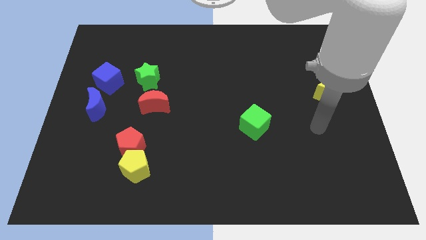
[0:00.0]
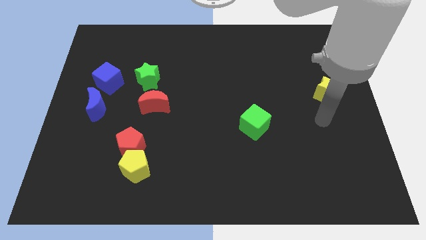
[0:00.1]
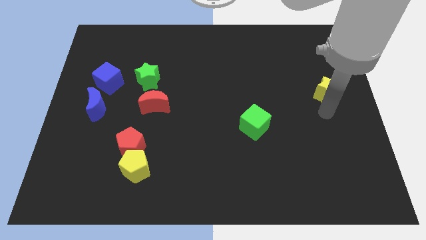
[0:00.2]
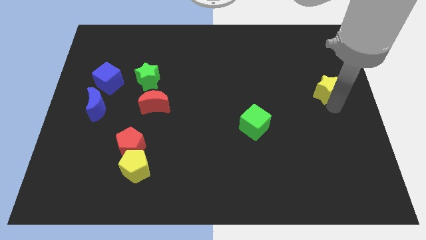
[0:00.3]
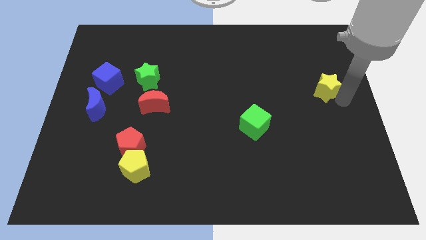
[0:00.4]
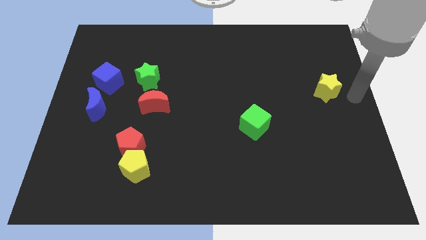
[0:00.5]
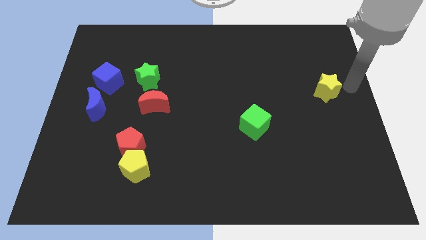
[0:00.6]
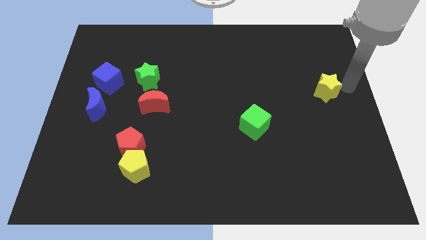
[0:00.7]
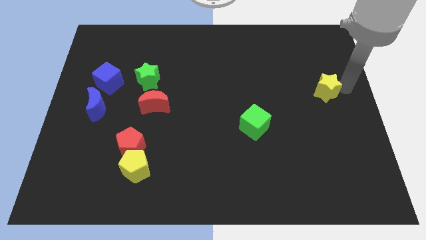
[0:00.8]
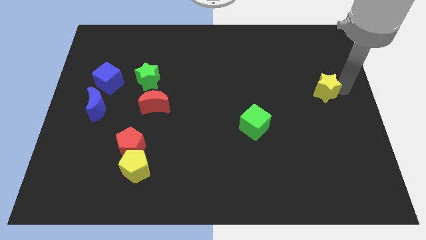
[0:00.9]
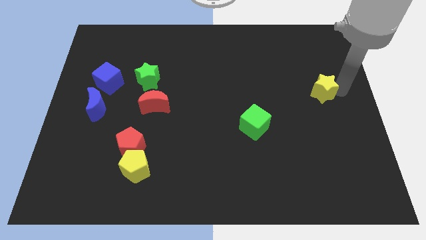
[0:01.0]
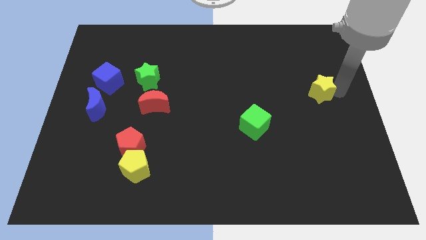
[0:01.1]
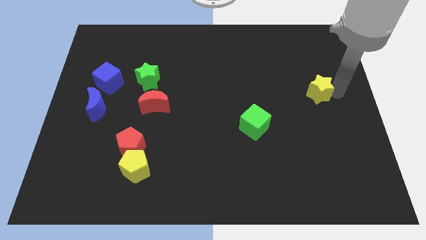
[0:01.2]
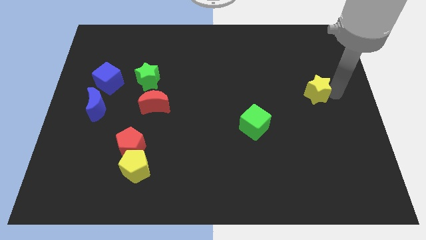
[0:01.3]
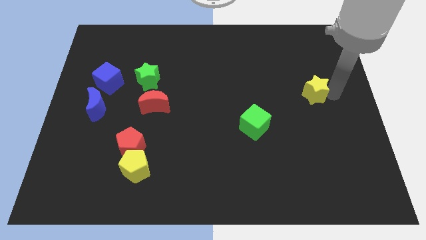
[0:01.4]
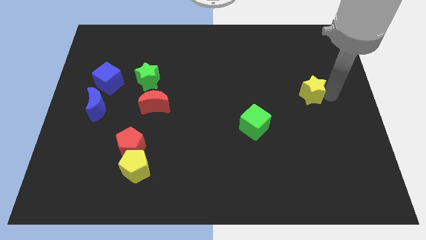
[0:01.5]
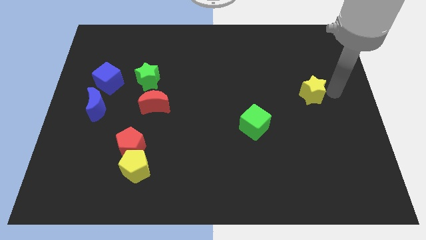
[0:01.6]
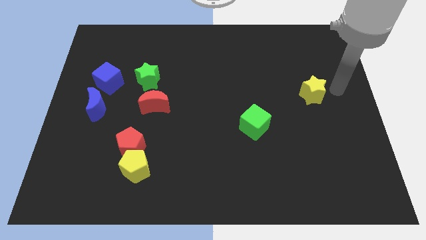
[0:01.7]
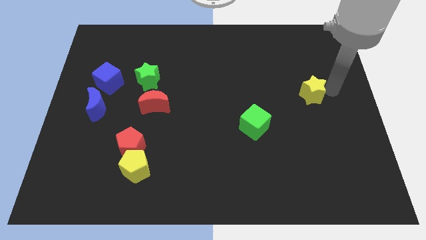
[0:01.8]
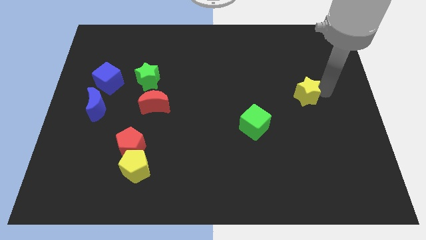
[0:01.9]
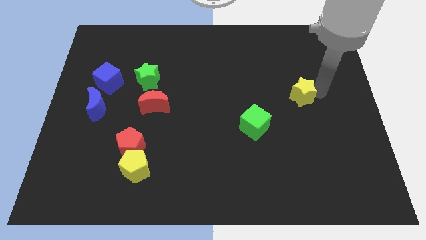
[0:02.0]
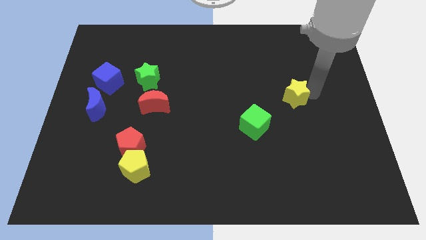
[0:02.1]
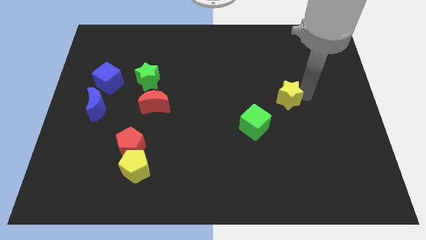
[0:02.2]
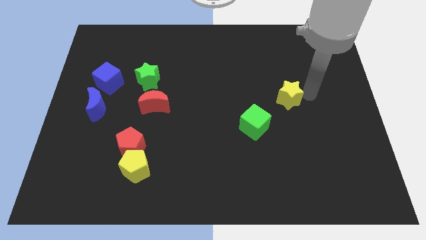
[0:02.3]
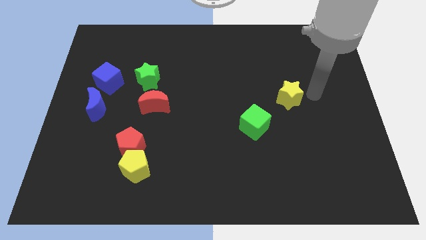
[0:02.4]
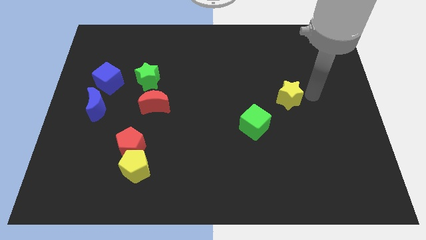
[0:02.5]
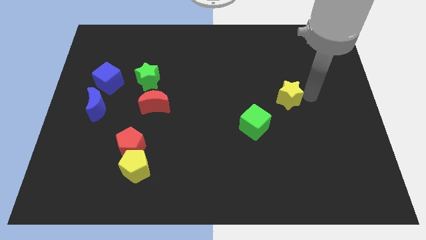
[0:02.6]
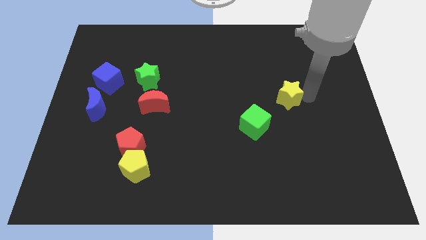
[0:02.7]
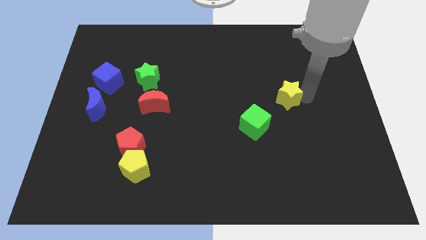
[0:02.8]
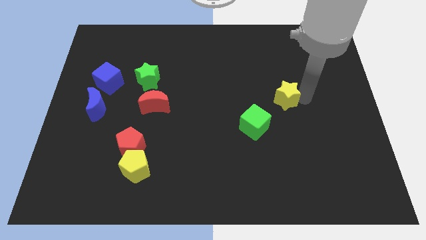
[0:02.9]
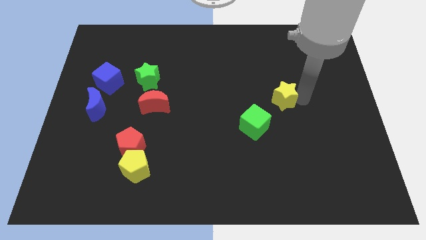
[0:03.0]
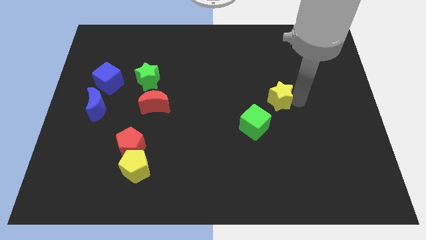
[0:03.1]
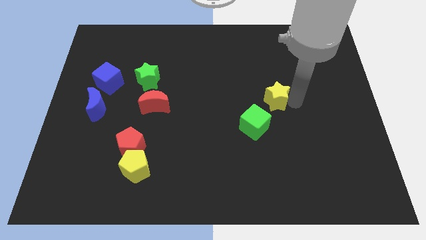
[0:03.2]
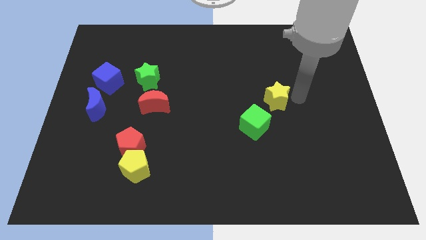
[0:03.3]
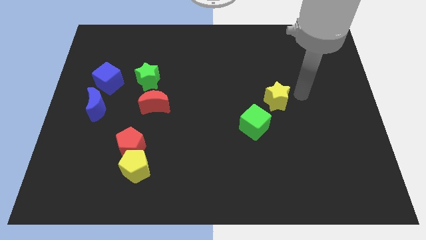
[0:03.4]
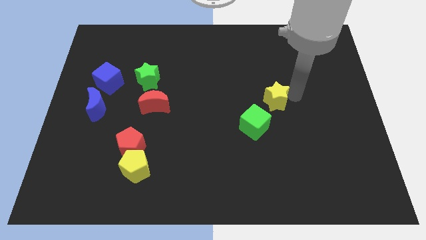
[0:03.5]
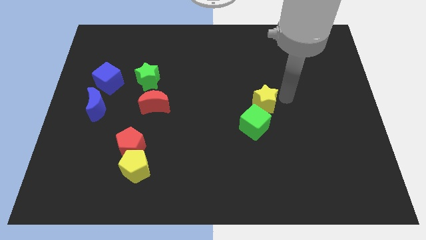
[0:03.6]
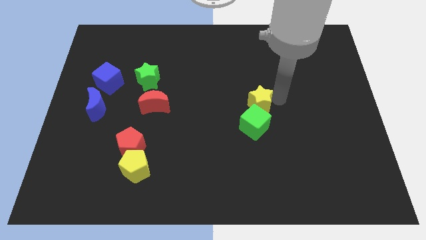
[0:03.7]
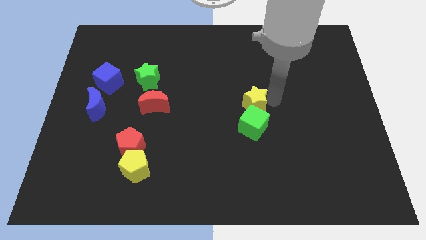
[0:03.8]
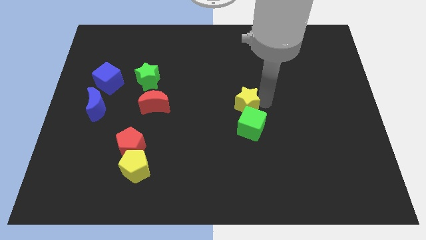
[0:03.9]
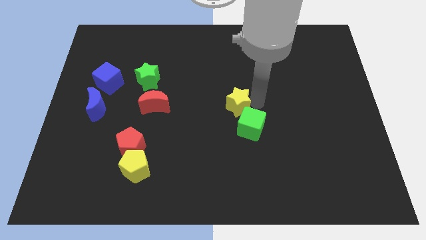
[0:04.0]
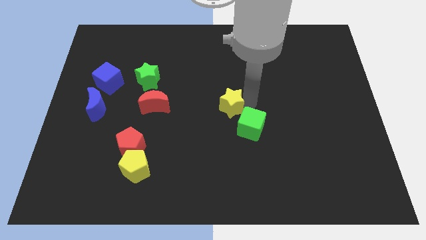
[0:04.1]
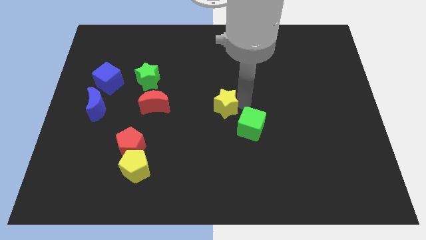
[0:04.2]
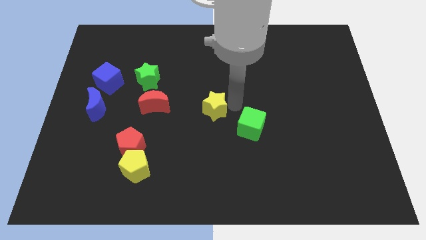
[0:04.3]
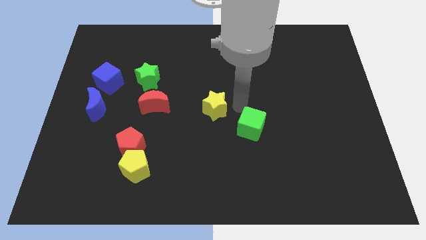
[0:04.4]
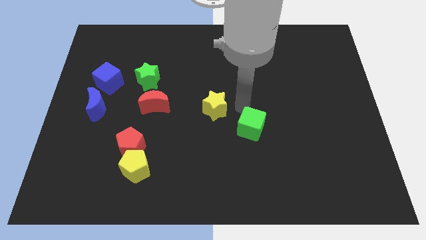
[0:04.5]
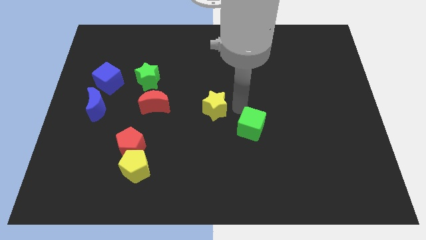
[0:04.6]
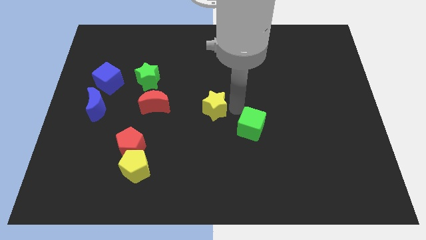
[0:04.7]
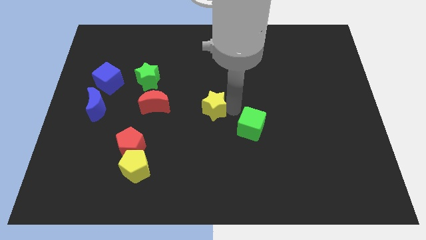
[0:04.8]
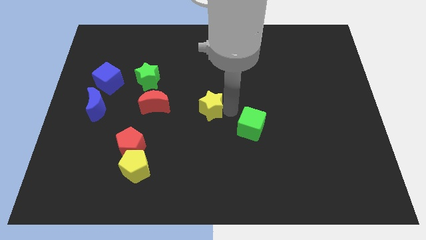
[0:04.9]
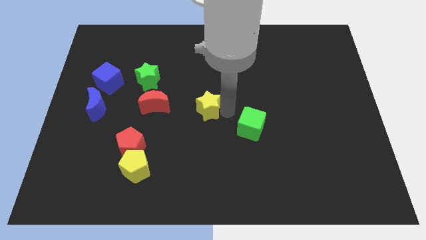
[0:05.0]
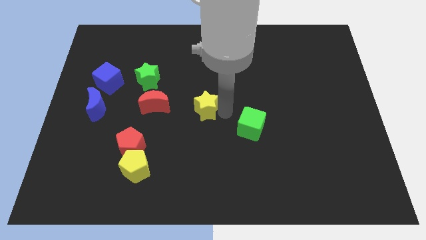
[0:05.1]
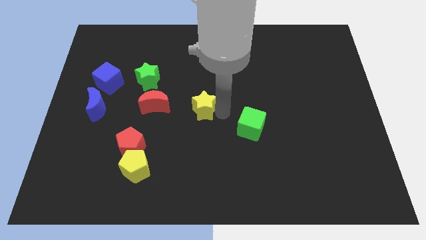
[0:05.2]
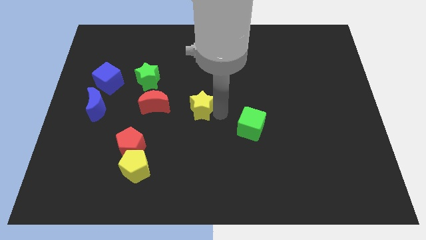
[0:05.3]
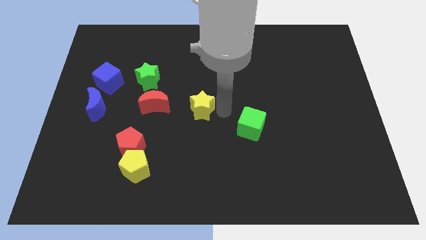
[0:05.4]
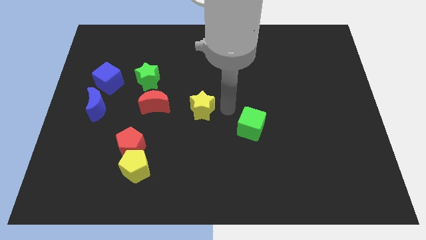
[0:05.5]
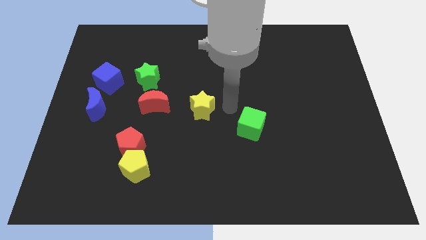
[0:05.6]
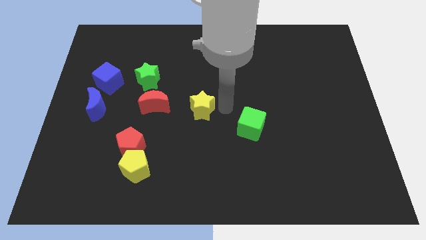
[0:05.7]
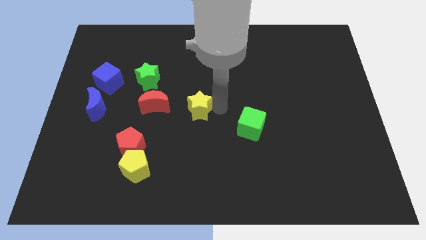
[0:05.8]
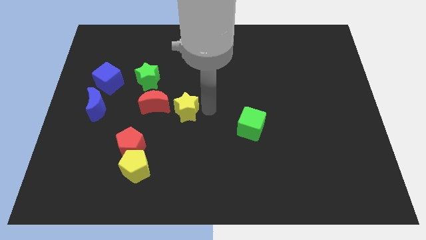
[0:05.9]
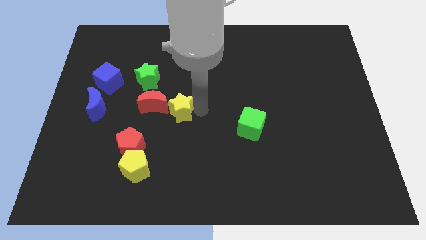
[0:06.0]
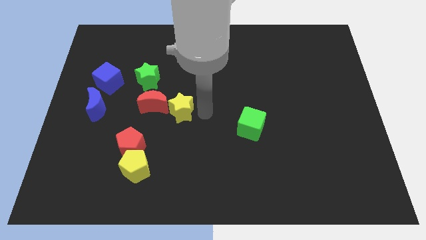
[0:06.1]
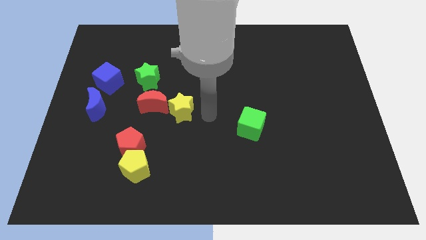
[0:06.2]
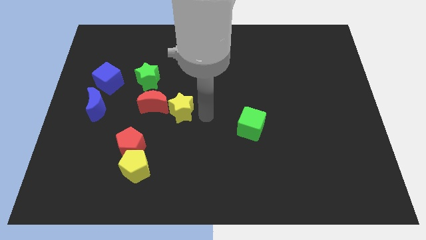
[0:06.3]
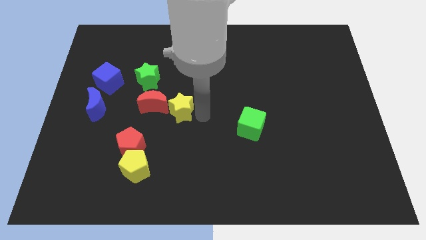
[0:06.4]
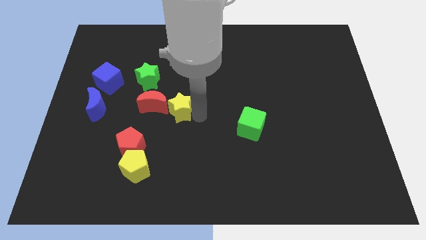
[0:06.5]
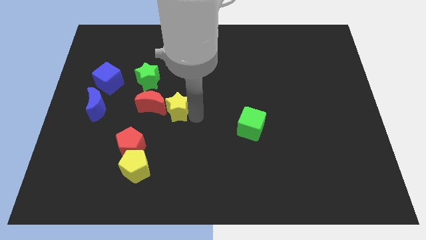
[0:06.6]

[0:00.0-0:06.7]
slide the yellow star to the red moon

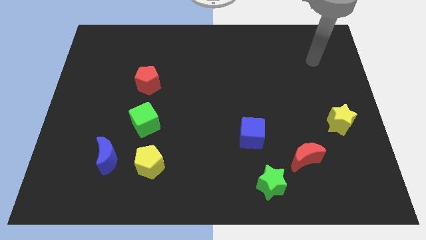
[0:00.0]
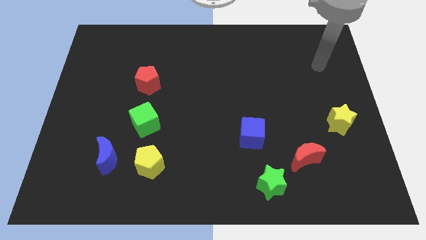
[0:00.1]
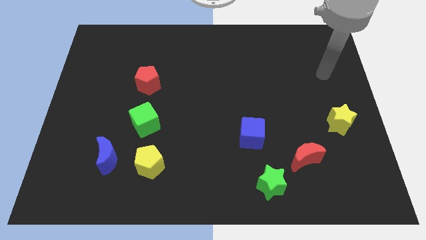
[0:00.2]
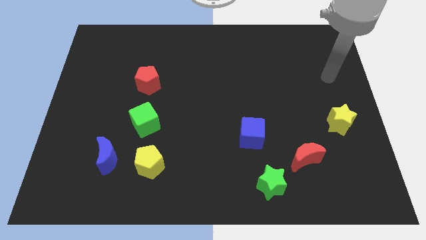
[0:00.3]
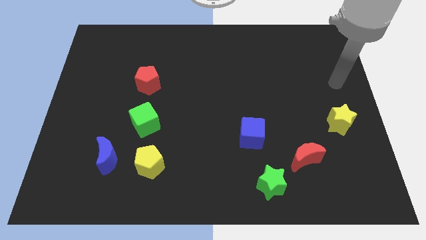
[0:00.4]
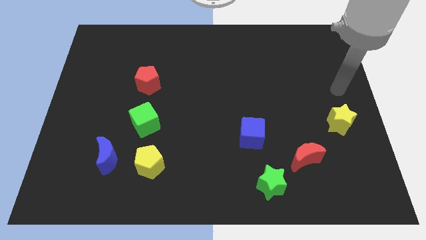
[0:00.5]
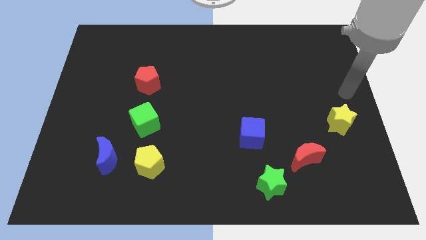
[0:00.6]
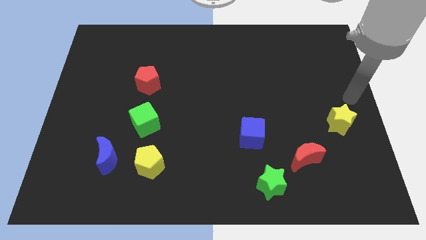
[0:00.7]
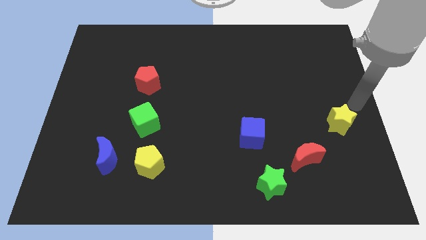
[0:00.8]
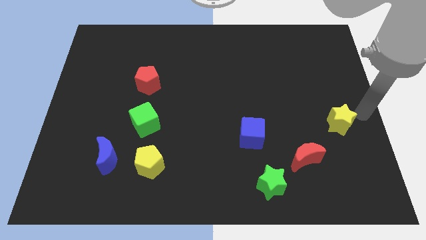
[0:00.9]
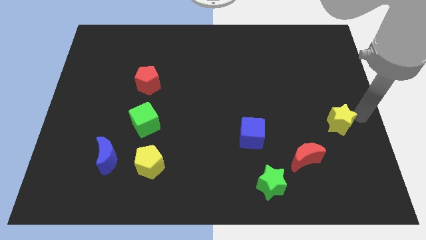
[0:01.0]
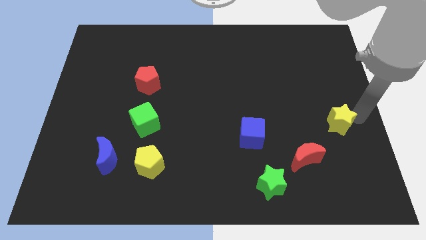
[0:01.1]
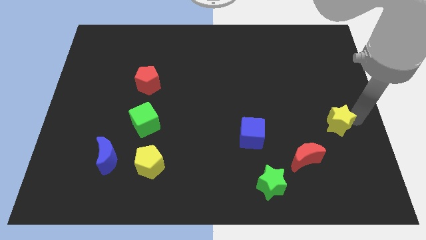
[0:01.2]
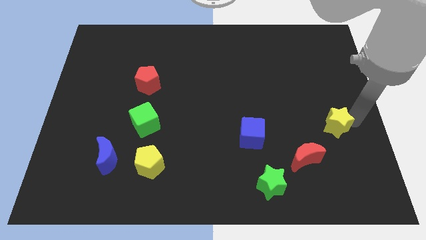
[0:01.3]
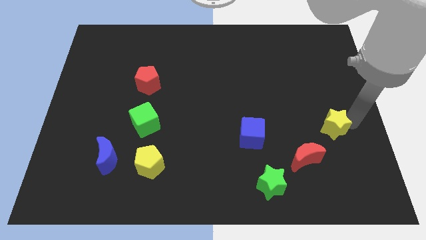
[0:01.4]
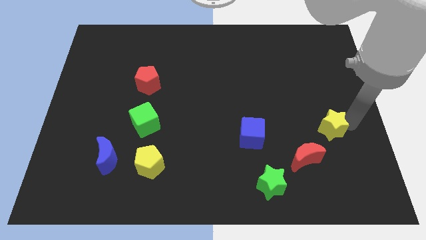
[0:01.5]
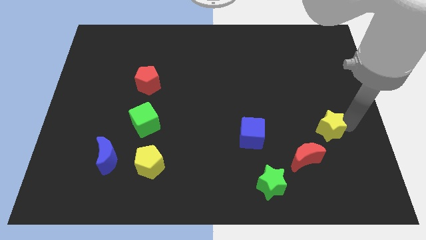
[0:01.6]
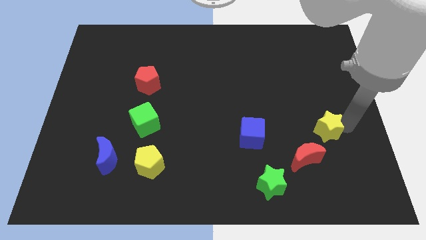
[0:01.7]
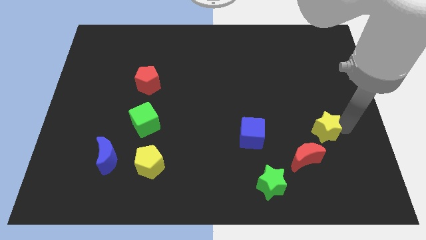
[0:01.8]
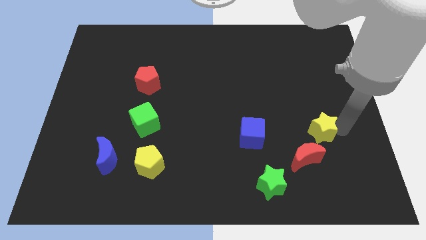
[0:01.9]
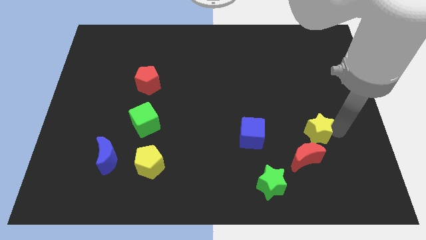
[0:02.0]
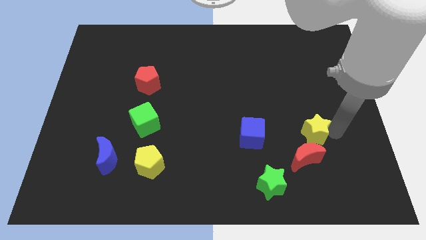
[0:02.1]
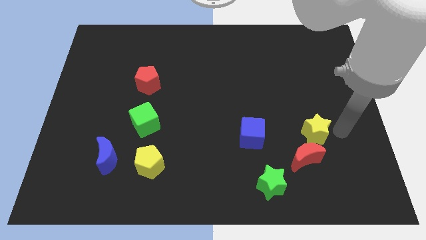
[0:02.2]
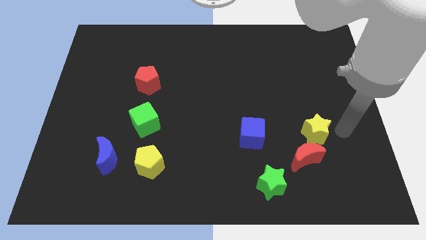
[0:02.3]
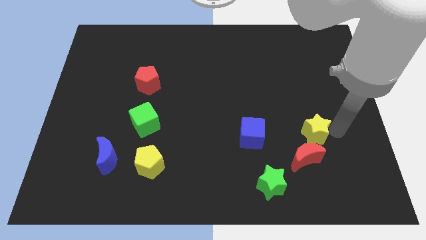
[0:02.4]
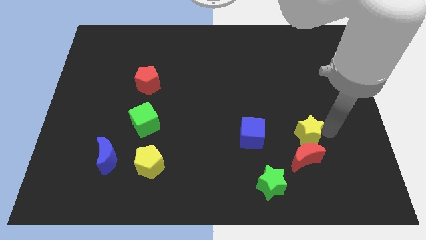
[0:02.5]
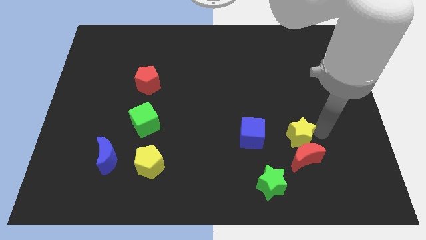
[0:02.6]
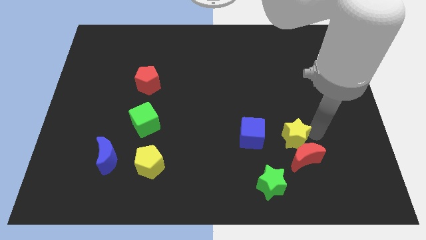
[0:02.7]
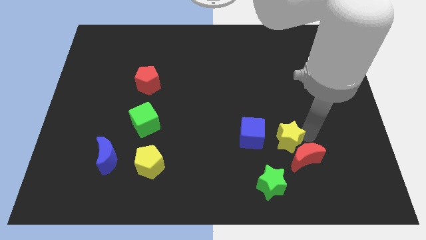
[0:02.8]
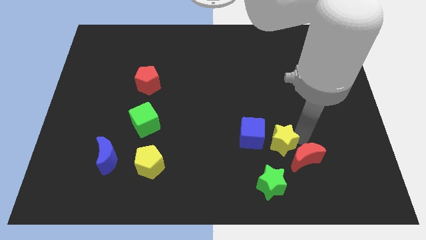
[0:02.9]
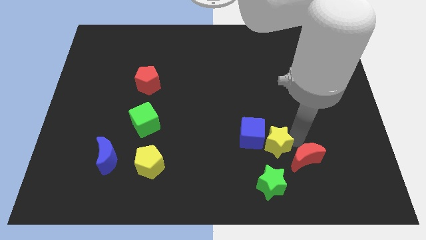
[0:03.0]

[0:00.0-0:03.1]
move the yellow star to the blue cube
